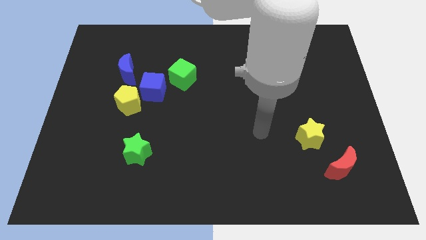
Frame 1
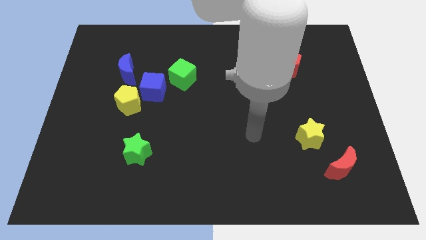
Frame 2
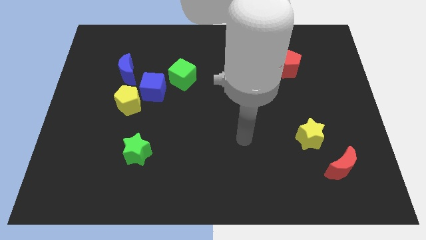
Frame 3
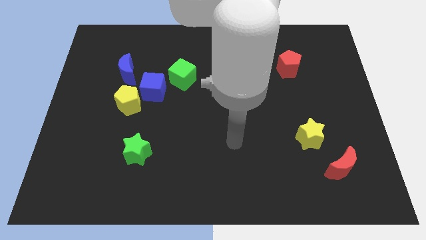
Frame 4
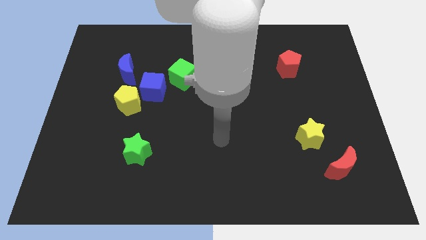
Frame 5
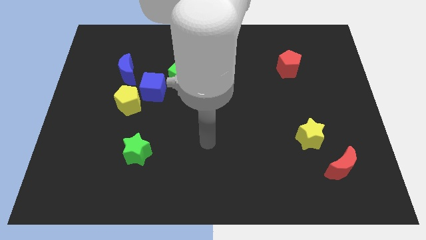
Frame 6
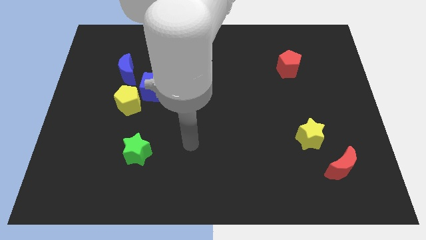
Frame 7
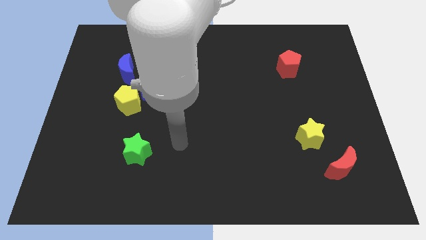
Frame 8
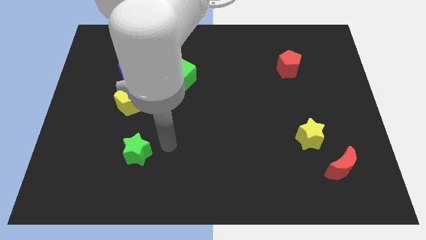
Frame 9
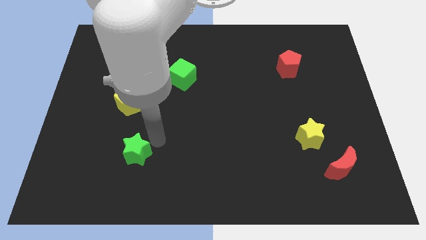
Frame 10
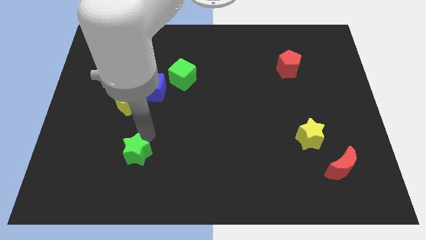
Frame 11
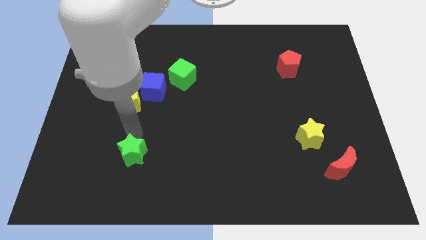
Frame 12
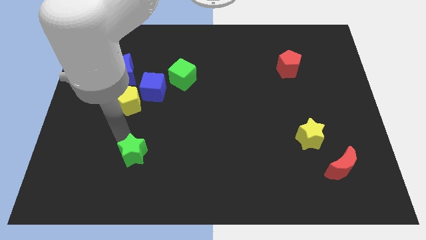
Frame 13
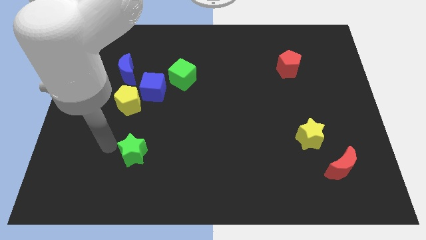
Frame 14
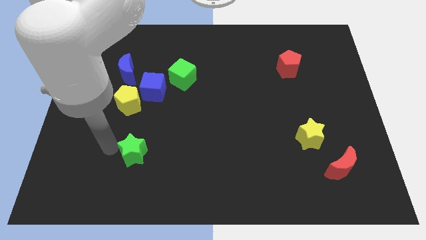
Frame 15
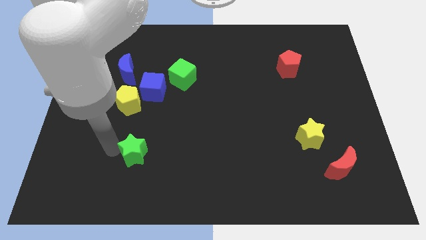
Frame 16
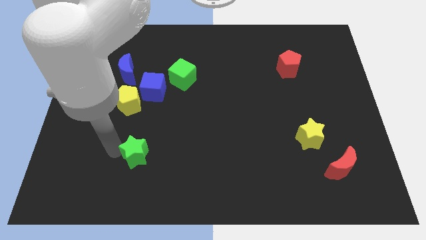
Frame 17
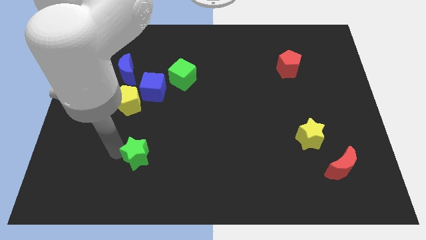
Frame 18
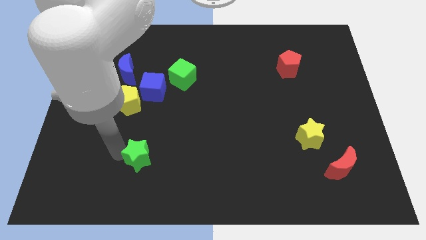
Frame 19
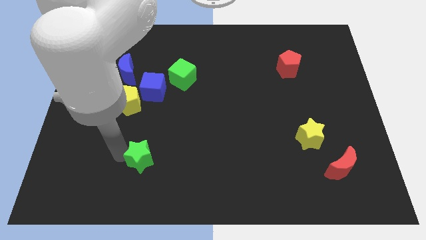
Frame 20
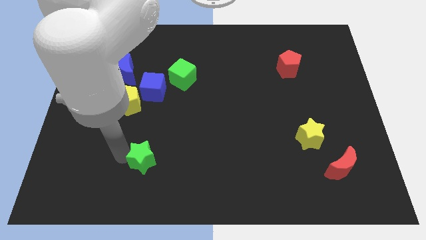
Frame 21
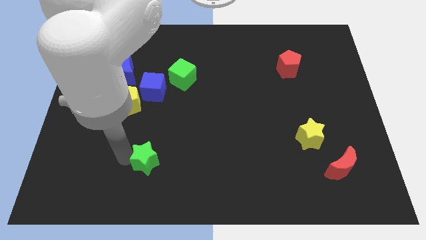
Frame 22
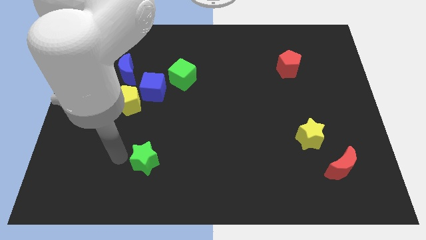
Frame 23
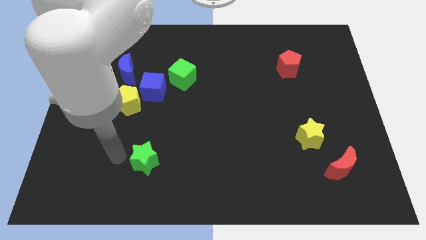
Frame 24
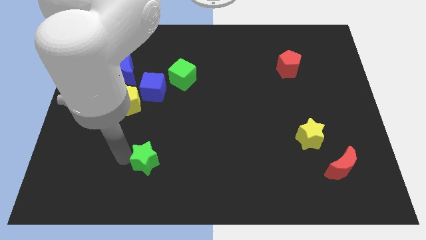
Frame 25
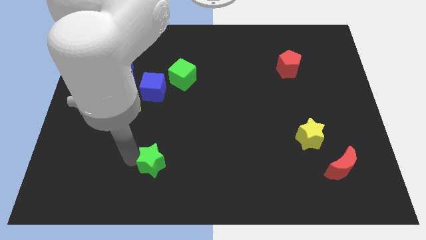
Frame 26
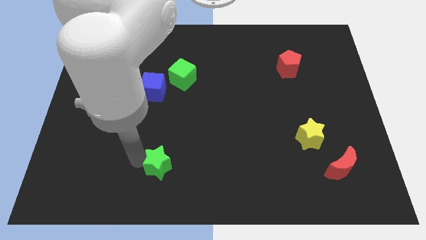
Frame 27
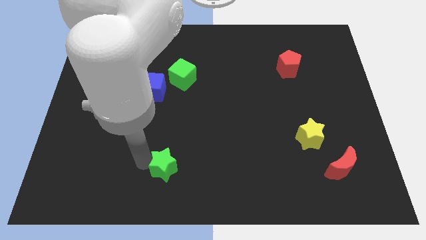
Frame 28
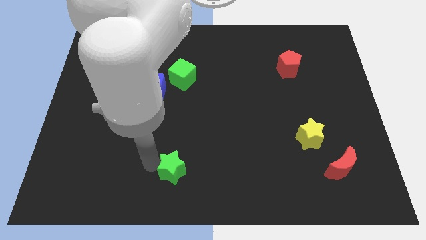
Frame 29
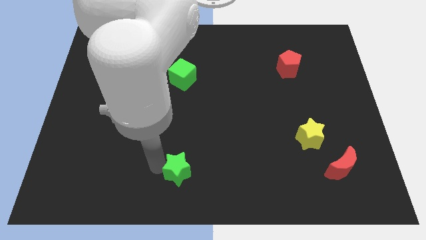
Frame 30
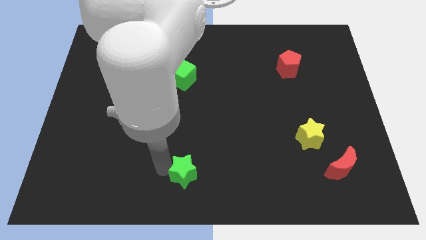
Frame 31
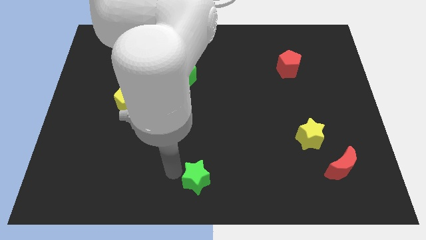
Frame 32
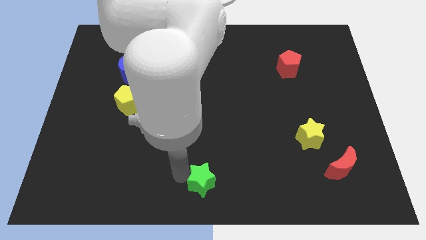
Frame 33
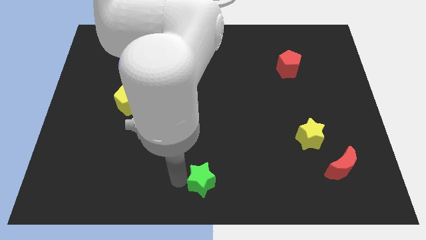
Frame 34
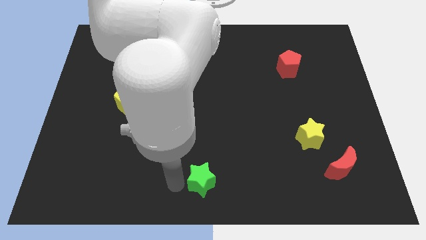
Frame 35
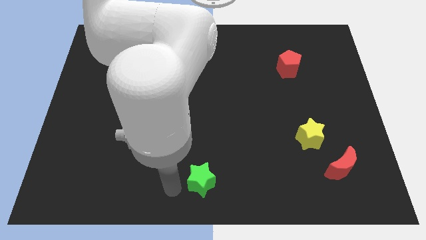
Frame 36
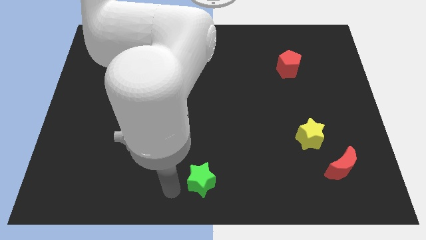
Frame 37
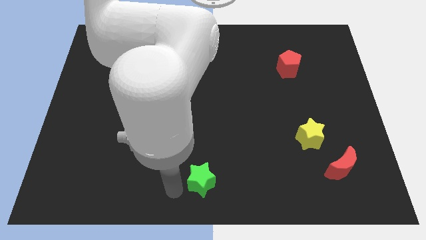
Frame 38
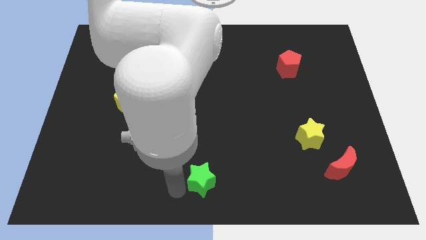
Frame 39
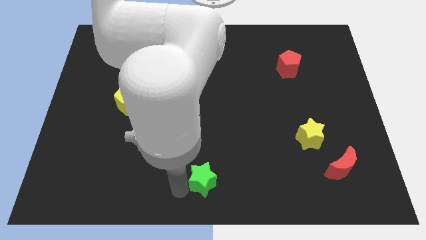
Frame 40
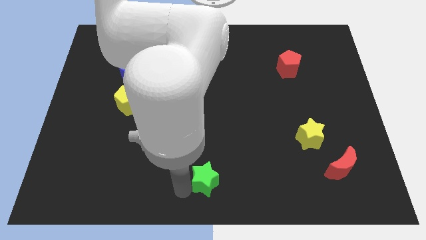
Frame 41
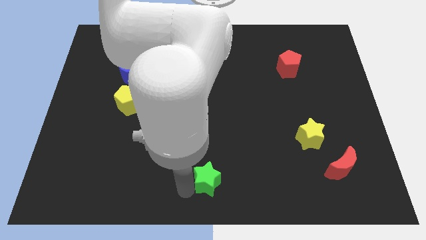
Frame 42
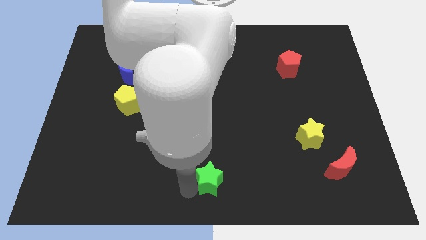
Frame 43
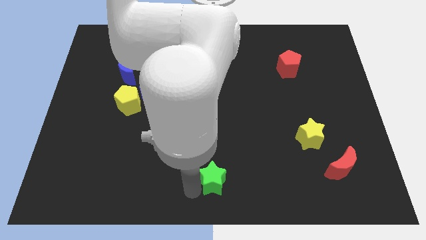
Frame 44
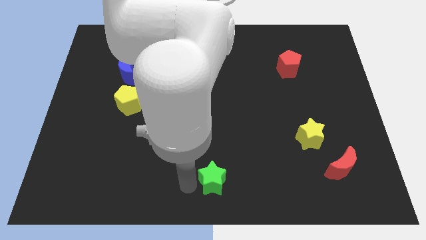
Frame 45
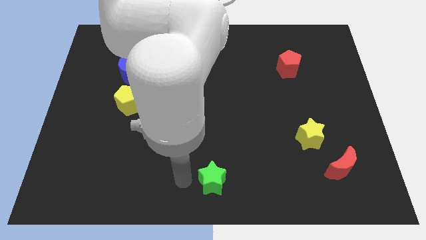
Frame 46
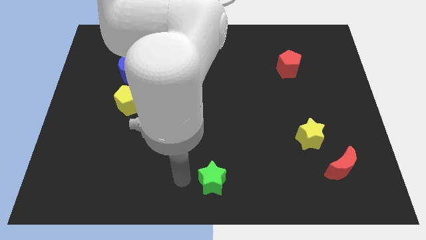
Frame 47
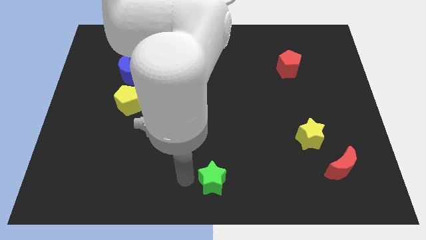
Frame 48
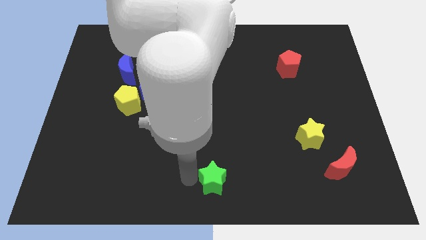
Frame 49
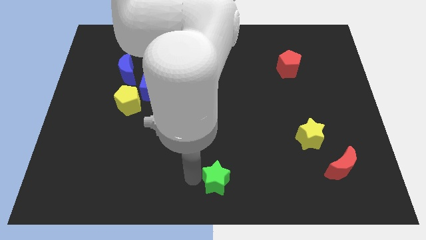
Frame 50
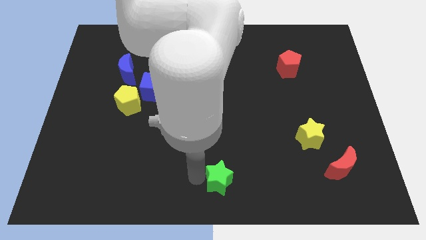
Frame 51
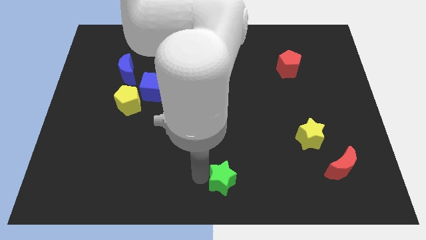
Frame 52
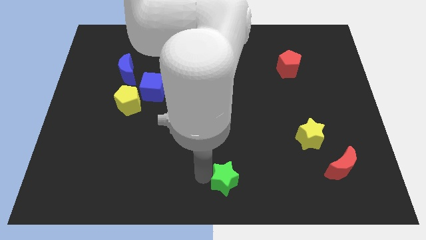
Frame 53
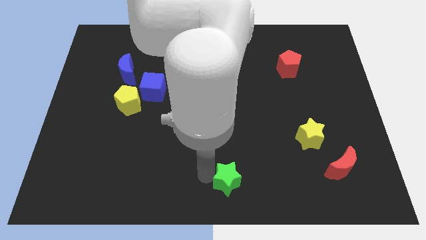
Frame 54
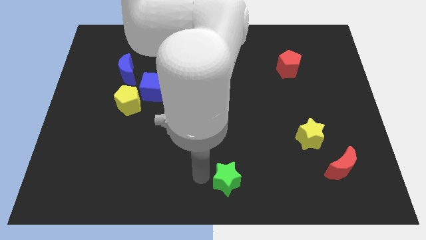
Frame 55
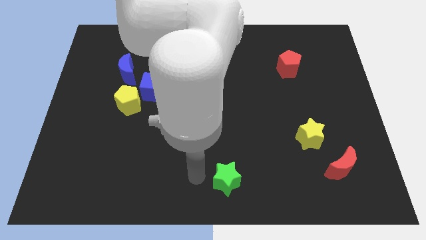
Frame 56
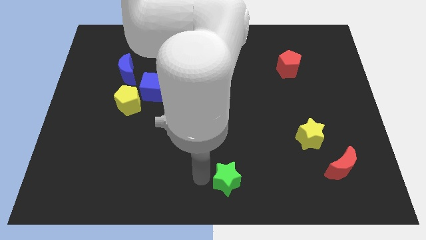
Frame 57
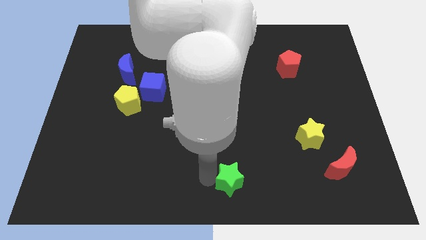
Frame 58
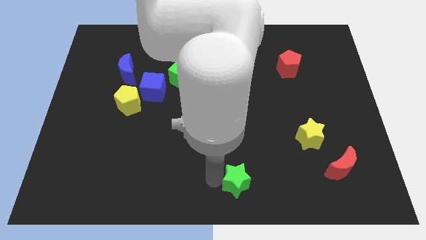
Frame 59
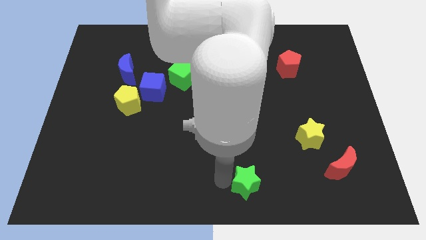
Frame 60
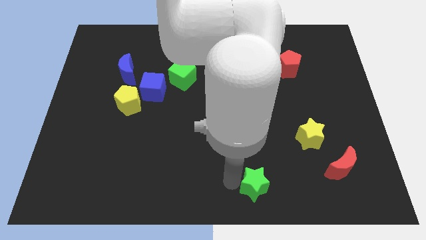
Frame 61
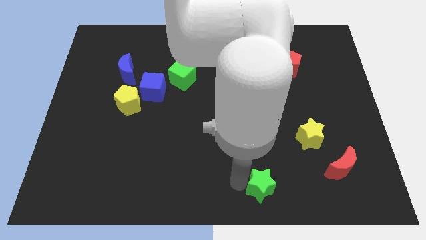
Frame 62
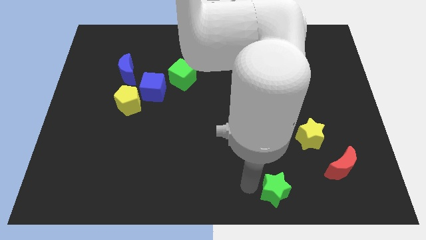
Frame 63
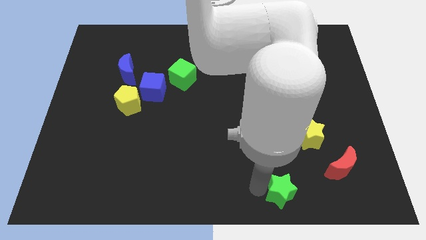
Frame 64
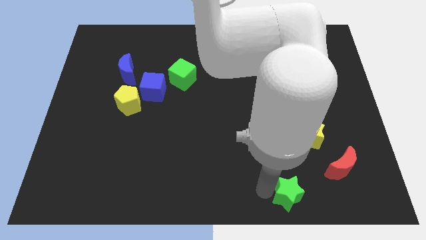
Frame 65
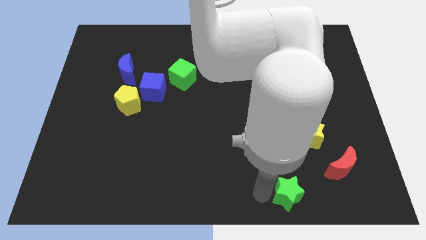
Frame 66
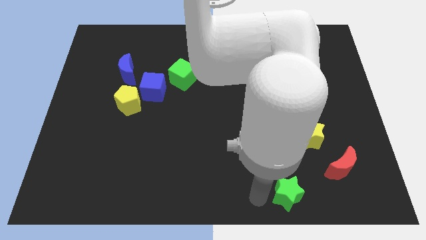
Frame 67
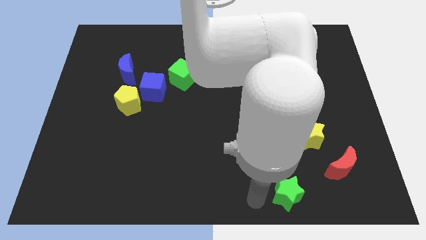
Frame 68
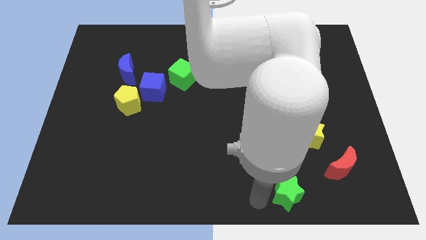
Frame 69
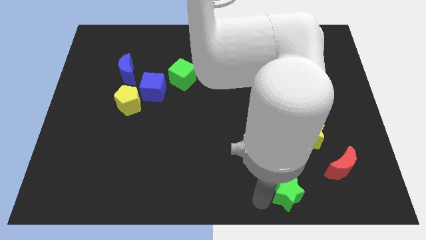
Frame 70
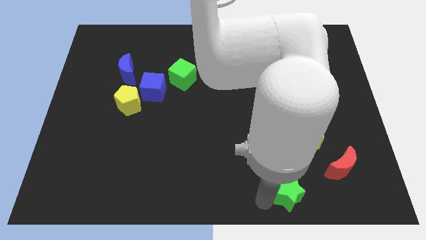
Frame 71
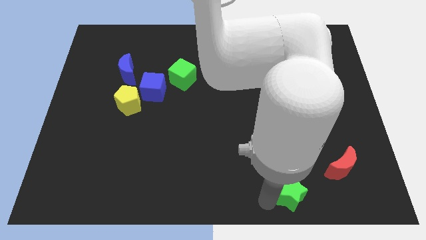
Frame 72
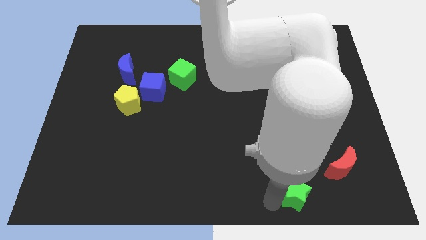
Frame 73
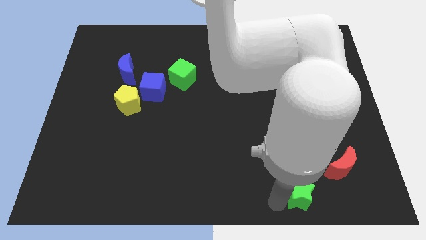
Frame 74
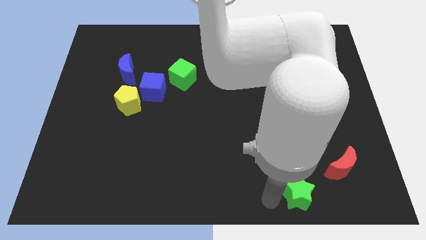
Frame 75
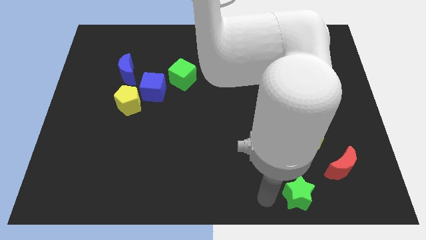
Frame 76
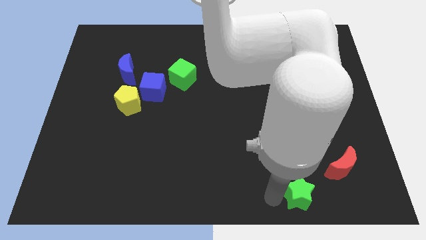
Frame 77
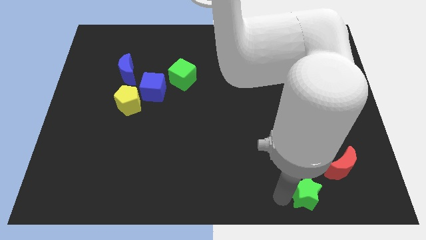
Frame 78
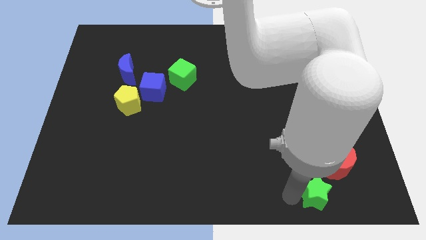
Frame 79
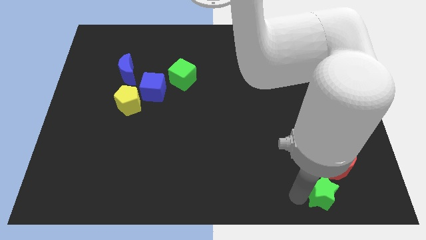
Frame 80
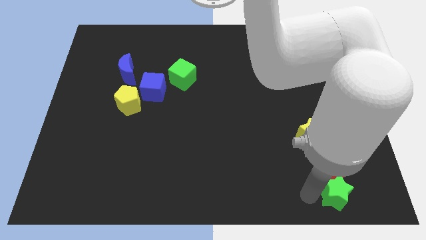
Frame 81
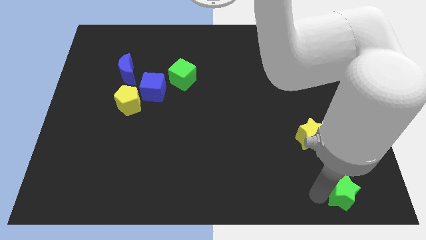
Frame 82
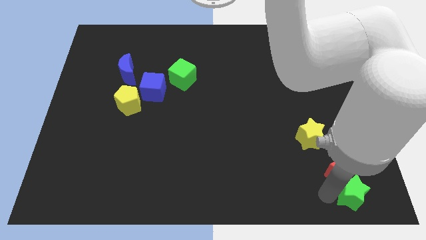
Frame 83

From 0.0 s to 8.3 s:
put the green star to the bottom right of the board
